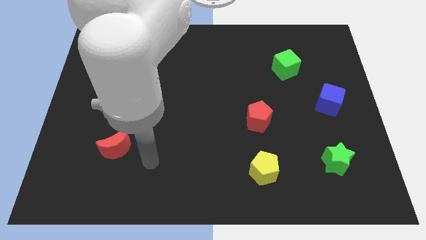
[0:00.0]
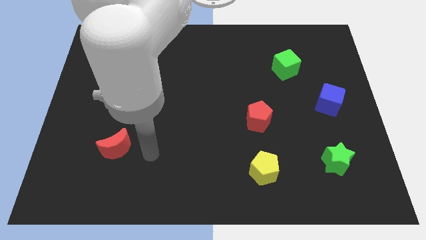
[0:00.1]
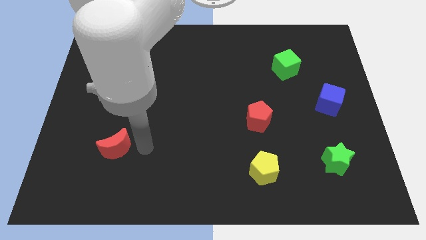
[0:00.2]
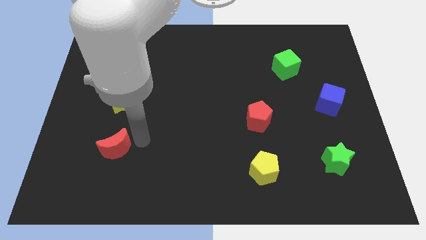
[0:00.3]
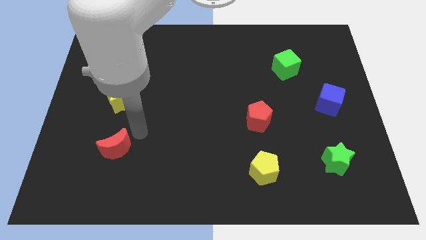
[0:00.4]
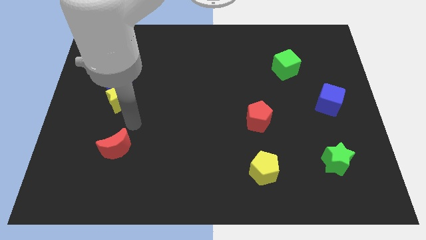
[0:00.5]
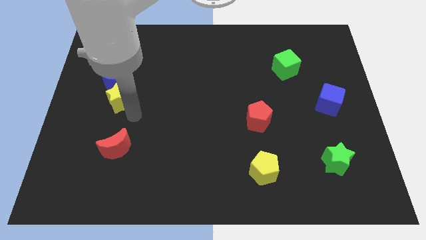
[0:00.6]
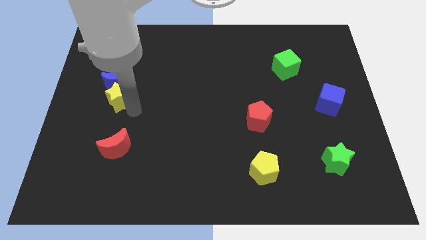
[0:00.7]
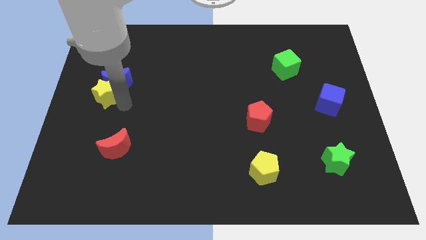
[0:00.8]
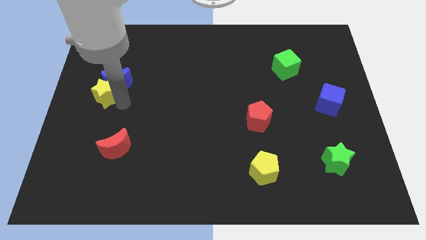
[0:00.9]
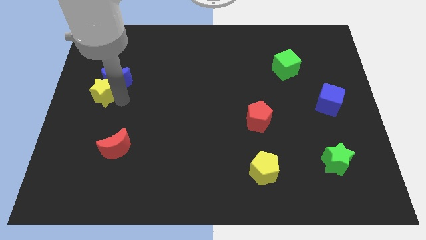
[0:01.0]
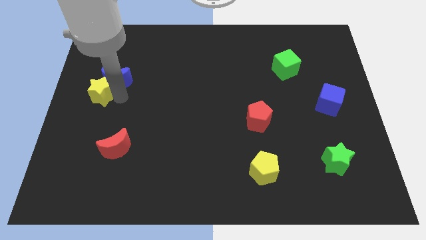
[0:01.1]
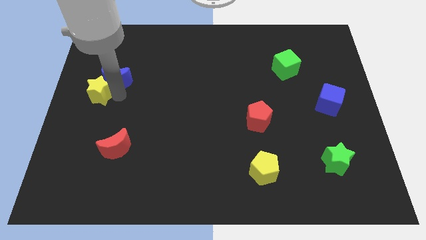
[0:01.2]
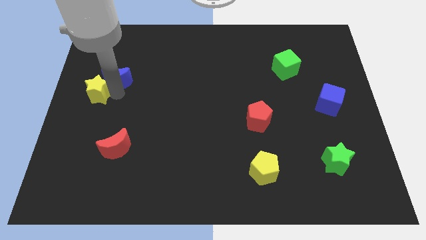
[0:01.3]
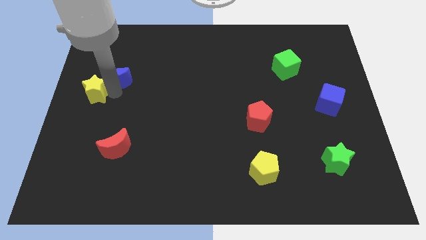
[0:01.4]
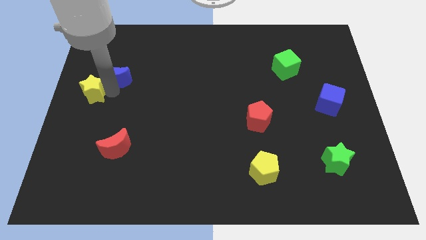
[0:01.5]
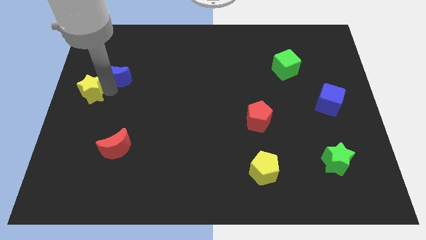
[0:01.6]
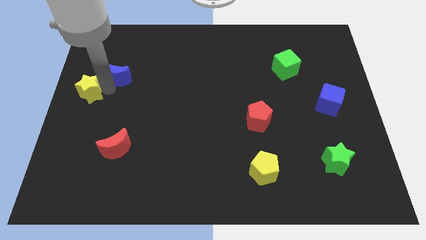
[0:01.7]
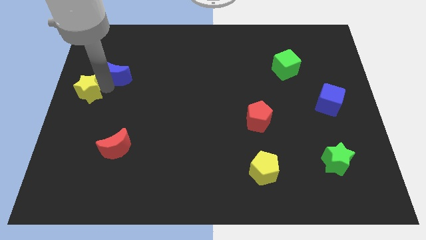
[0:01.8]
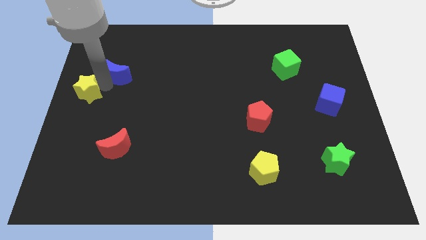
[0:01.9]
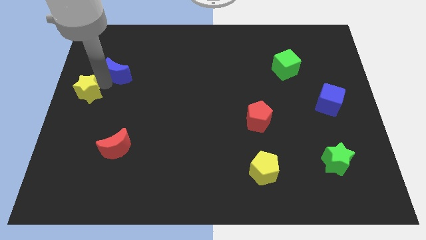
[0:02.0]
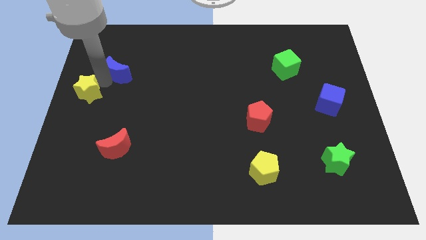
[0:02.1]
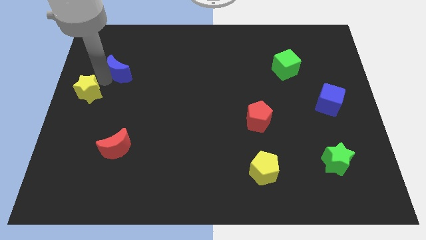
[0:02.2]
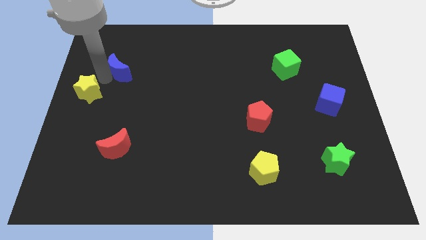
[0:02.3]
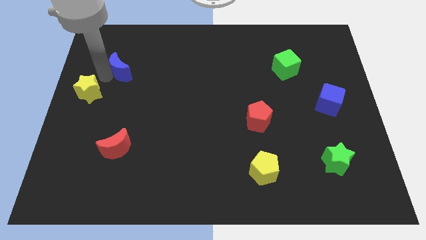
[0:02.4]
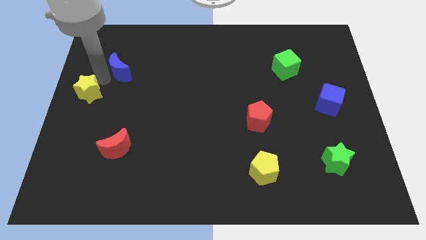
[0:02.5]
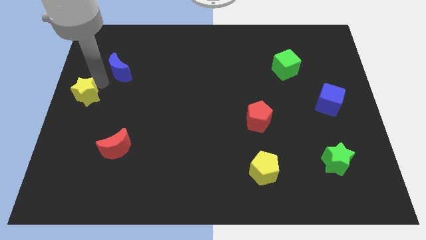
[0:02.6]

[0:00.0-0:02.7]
move the blue moon away from the yellow star

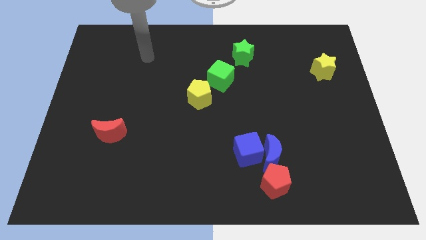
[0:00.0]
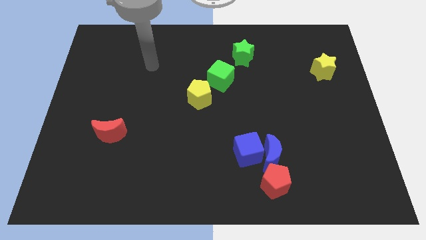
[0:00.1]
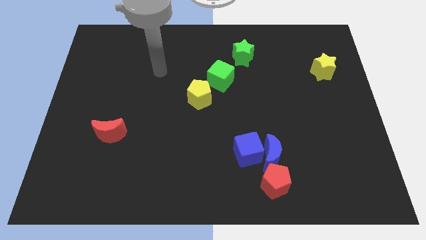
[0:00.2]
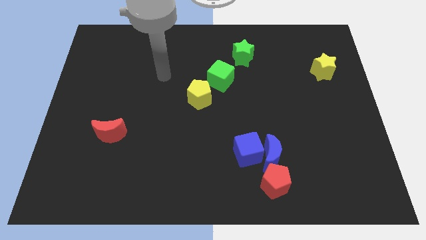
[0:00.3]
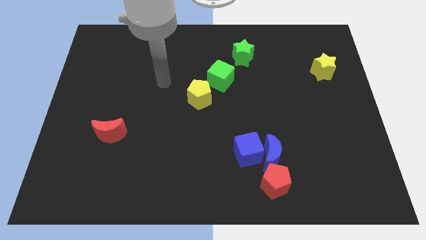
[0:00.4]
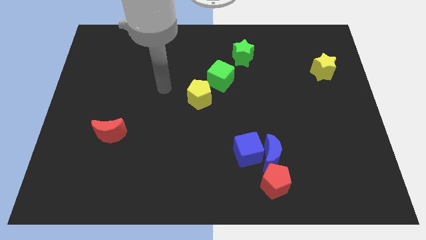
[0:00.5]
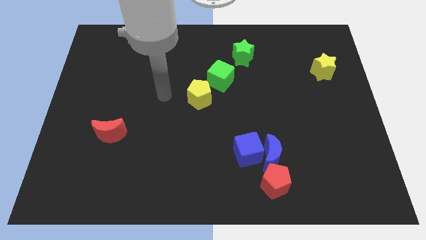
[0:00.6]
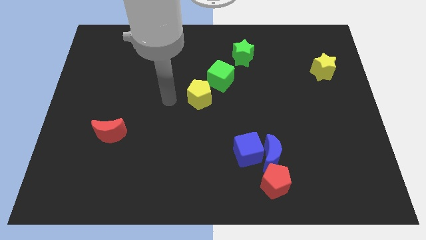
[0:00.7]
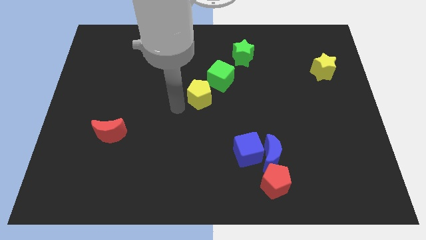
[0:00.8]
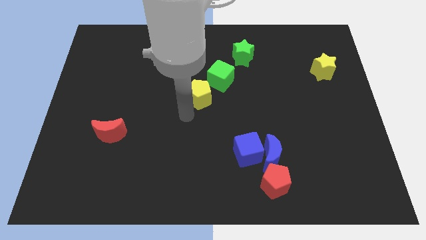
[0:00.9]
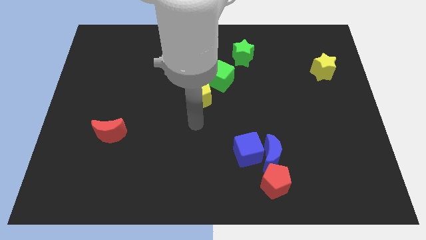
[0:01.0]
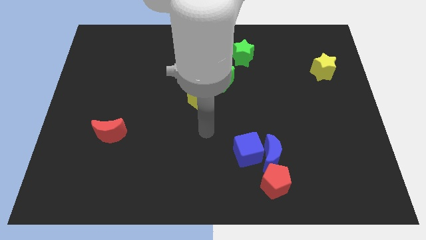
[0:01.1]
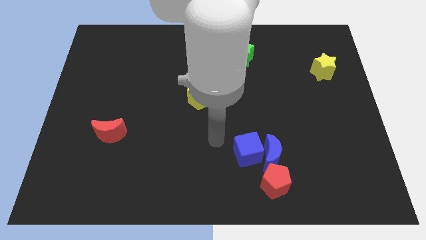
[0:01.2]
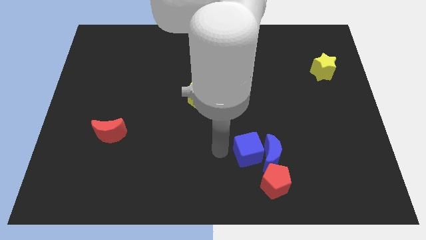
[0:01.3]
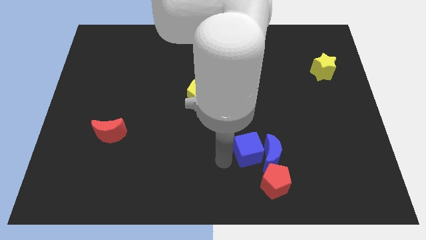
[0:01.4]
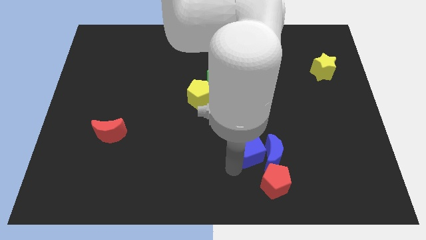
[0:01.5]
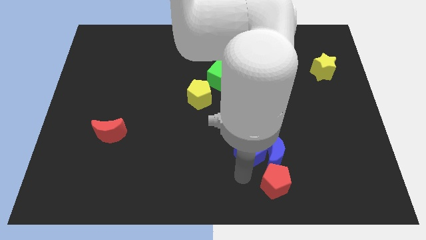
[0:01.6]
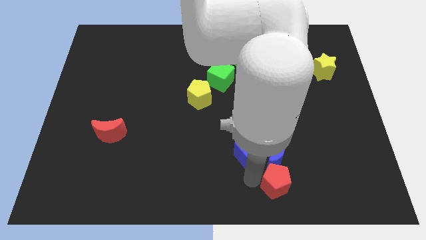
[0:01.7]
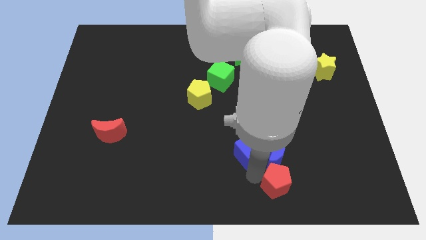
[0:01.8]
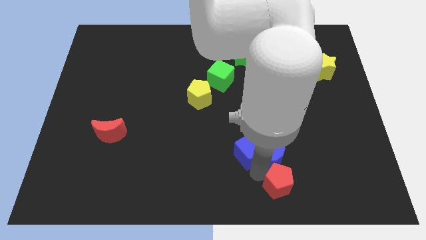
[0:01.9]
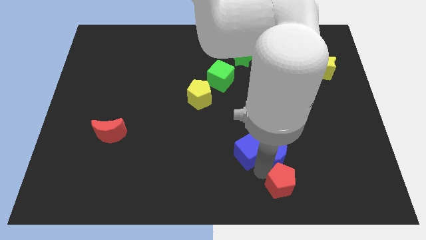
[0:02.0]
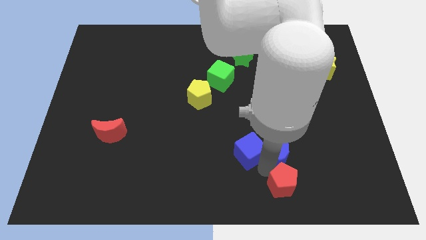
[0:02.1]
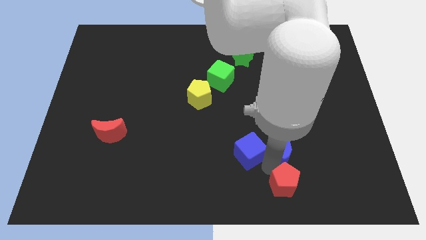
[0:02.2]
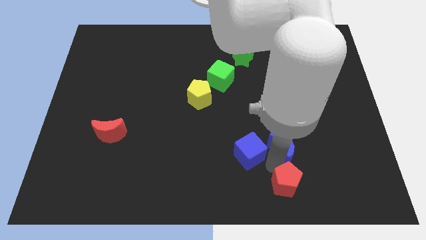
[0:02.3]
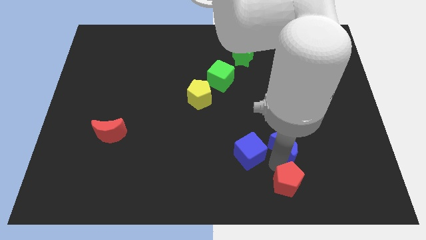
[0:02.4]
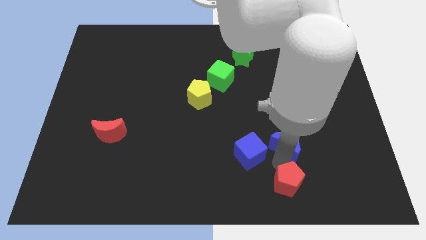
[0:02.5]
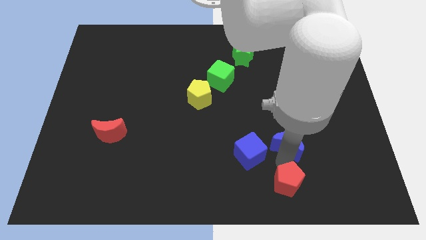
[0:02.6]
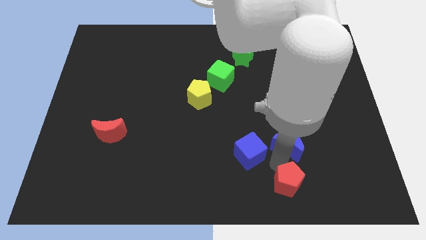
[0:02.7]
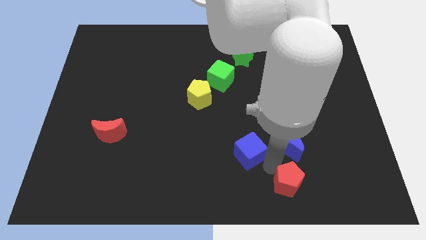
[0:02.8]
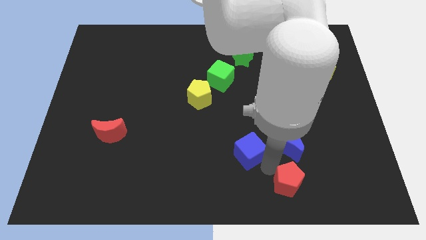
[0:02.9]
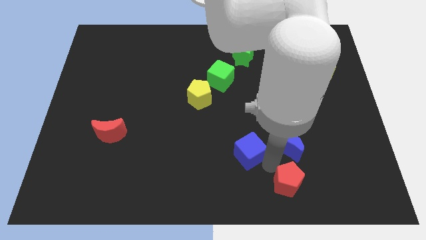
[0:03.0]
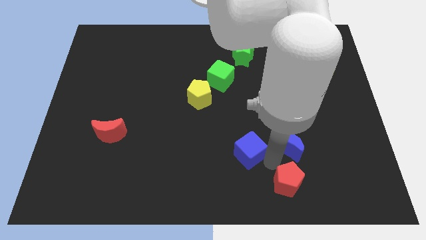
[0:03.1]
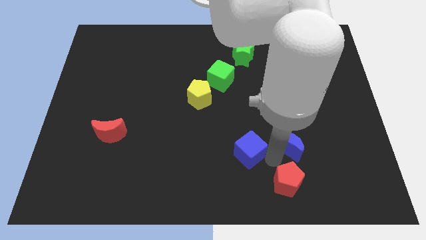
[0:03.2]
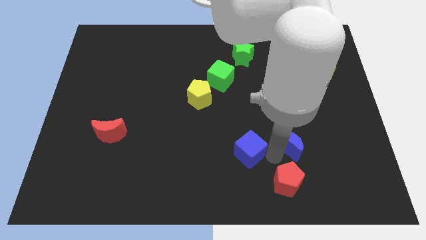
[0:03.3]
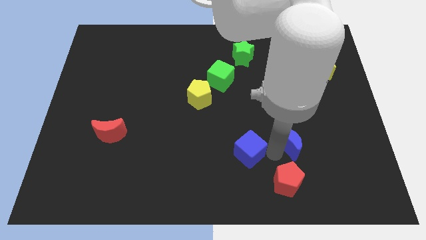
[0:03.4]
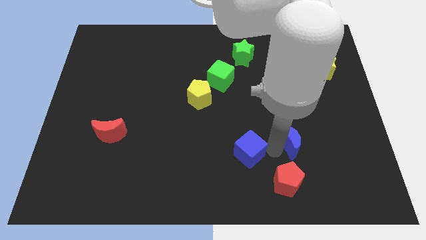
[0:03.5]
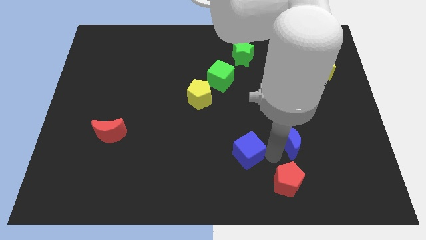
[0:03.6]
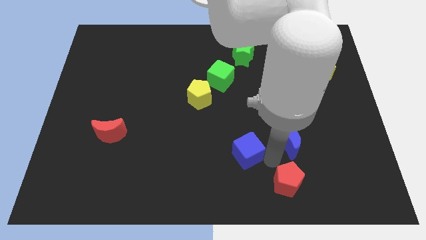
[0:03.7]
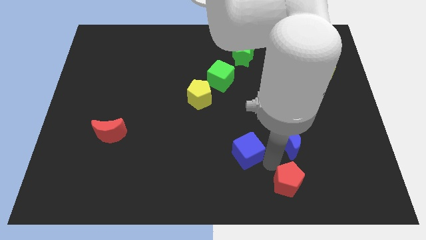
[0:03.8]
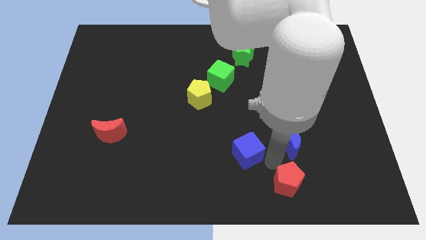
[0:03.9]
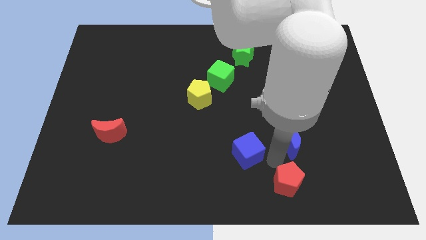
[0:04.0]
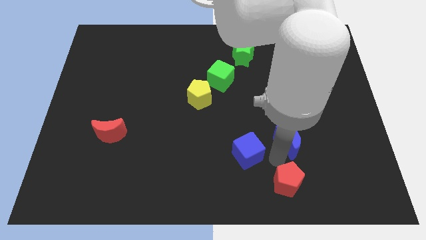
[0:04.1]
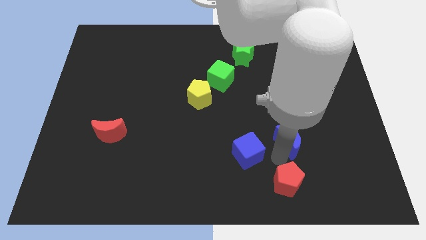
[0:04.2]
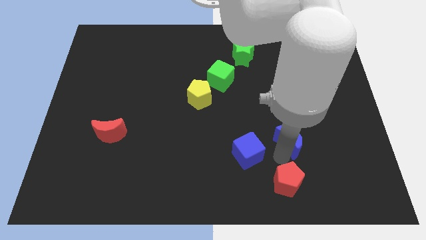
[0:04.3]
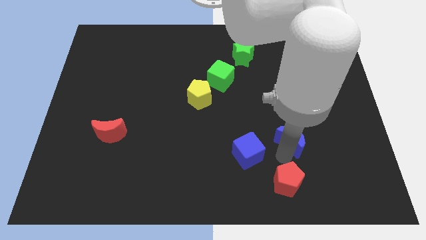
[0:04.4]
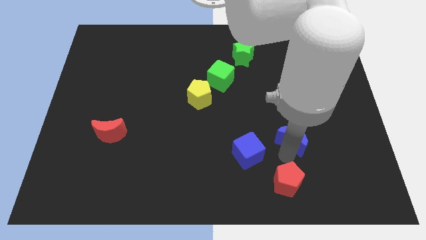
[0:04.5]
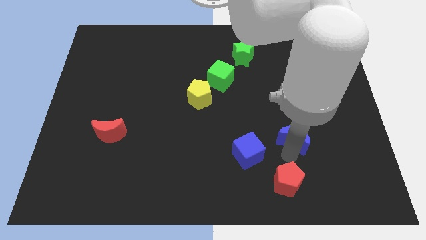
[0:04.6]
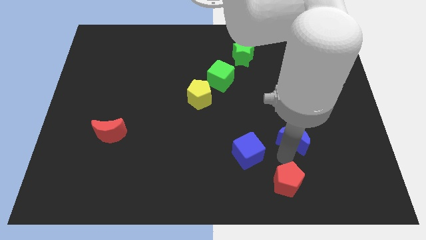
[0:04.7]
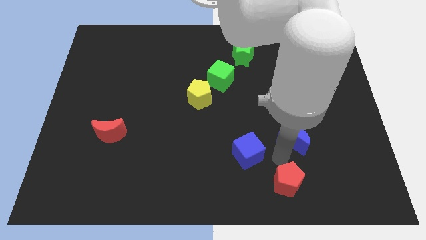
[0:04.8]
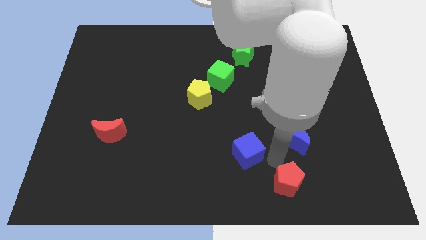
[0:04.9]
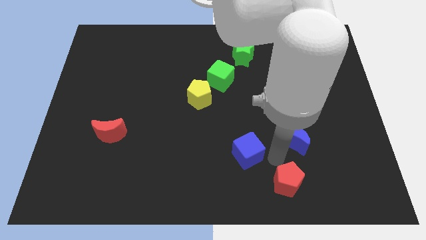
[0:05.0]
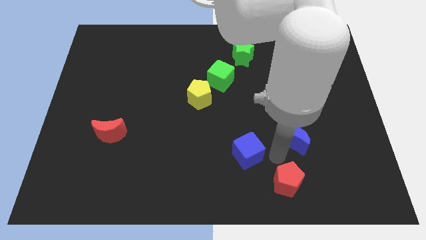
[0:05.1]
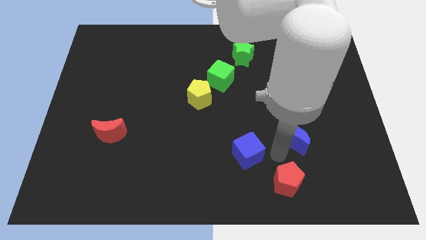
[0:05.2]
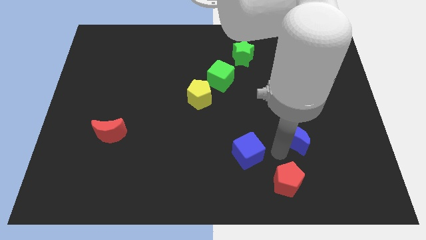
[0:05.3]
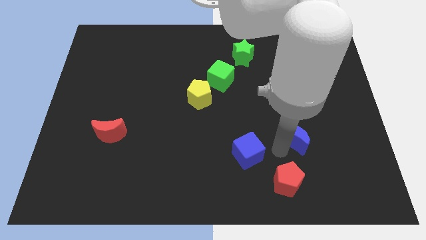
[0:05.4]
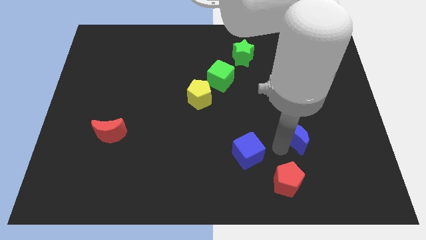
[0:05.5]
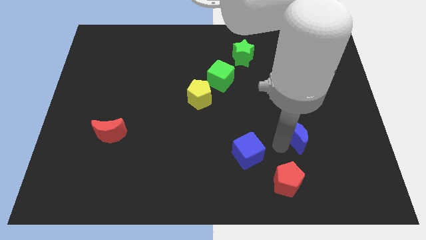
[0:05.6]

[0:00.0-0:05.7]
pull the blue moon apart from the blue cube and red pentagon

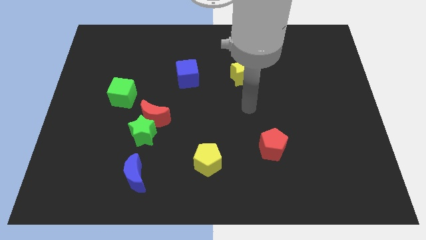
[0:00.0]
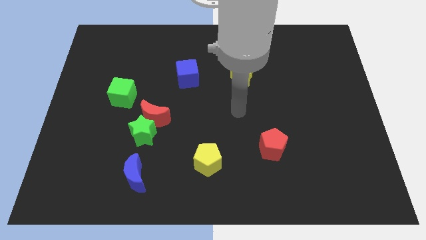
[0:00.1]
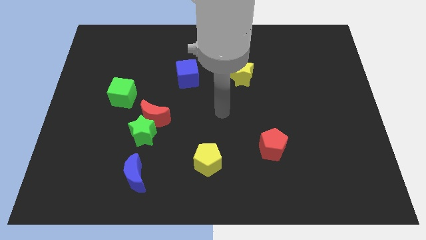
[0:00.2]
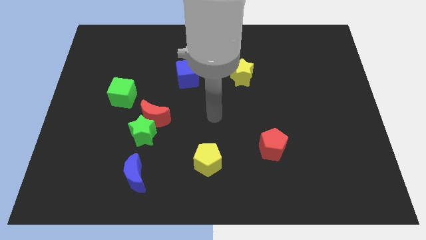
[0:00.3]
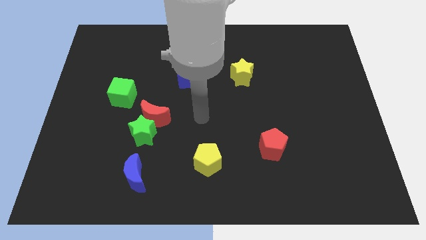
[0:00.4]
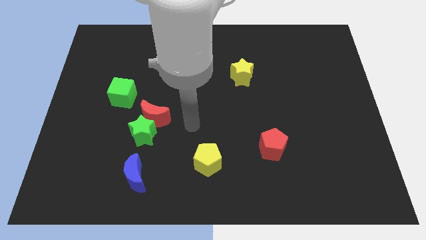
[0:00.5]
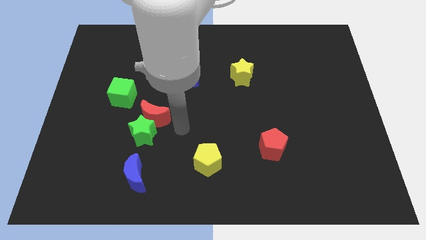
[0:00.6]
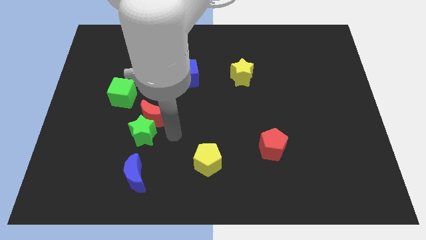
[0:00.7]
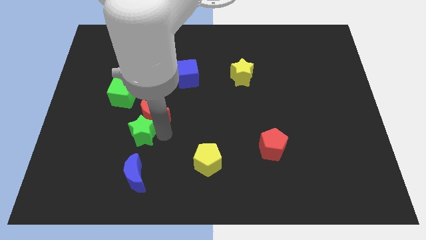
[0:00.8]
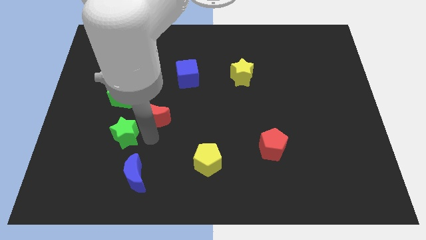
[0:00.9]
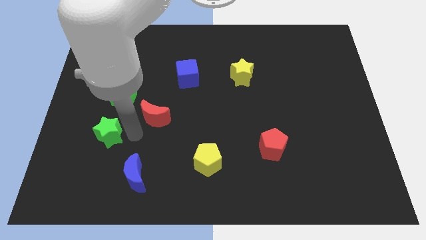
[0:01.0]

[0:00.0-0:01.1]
move the red moon away from the green star
